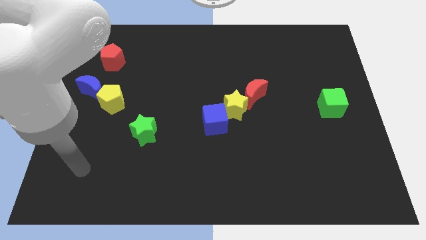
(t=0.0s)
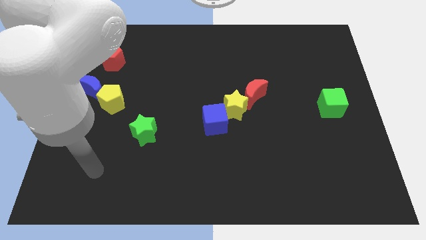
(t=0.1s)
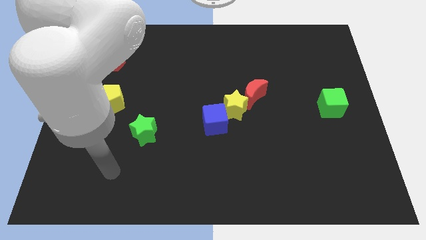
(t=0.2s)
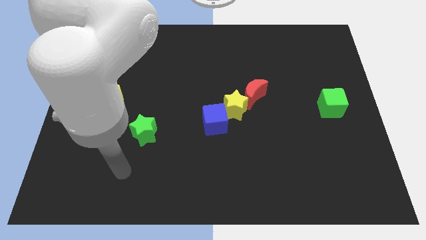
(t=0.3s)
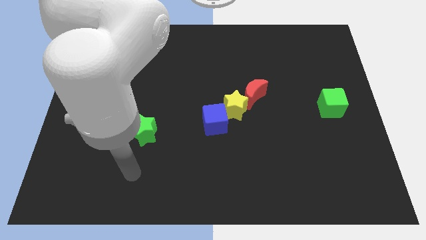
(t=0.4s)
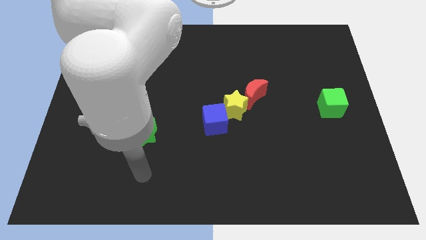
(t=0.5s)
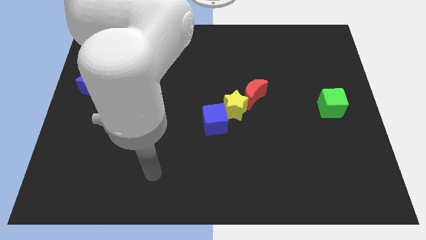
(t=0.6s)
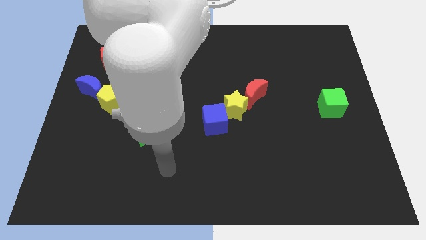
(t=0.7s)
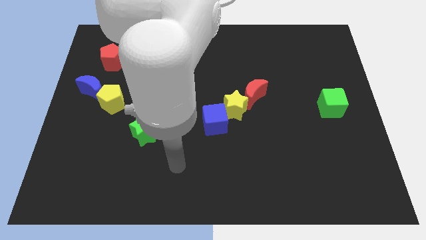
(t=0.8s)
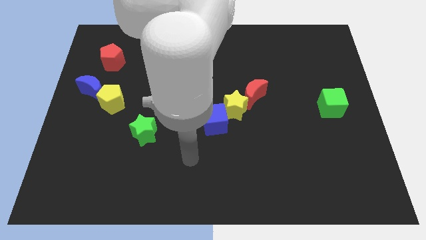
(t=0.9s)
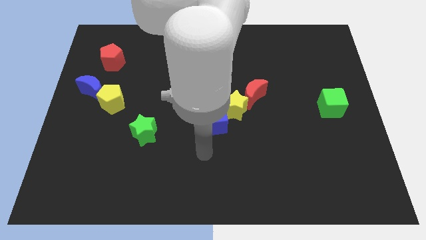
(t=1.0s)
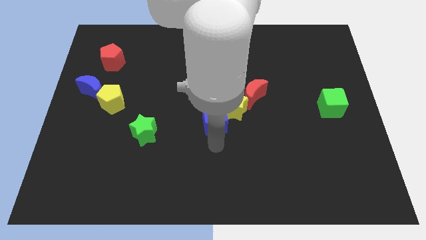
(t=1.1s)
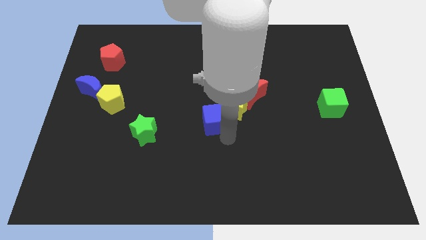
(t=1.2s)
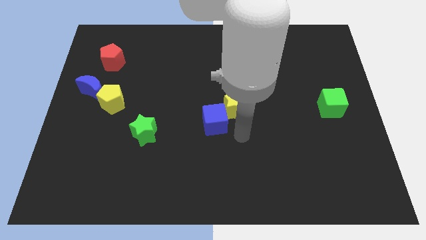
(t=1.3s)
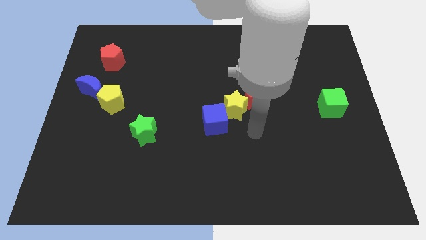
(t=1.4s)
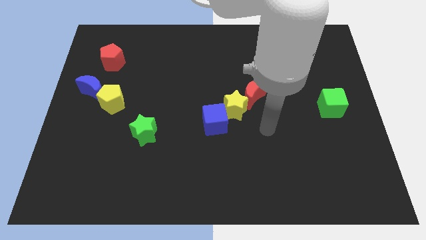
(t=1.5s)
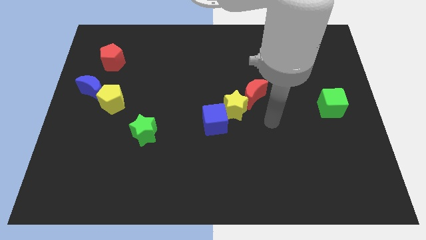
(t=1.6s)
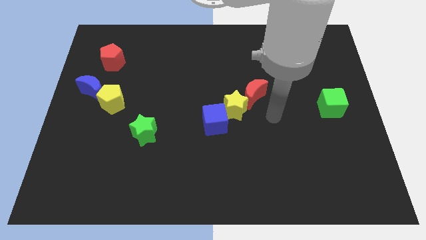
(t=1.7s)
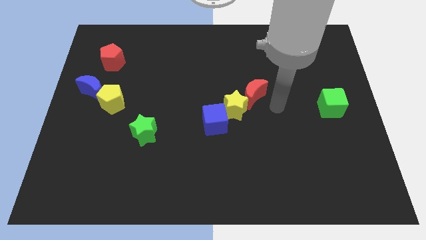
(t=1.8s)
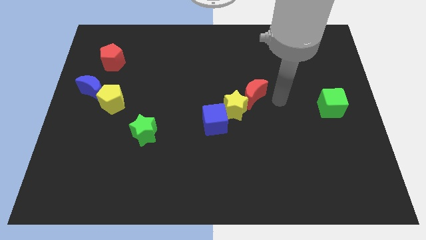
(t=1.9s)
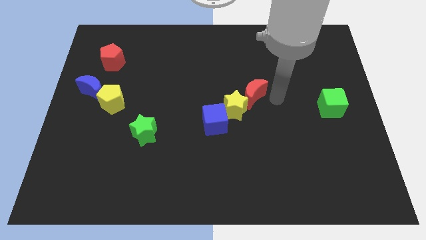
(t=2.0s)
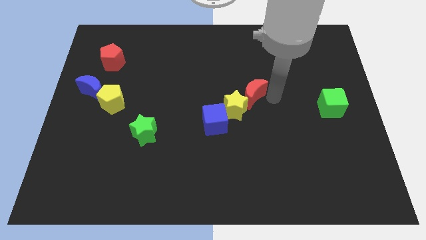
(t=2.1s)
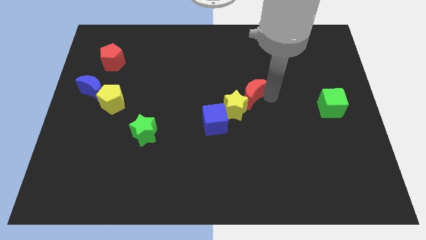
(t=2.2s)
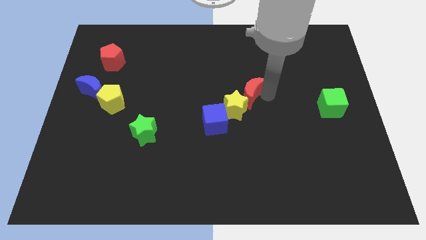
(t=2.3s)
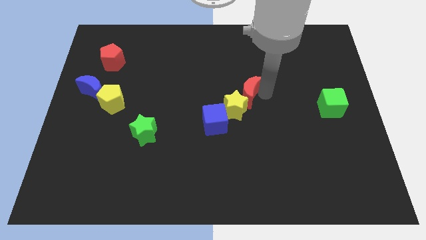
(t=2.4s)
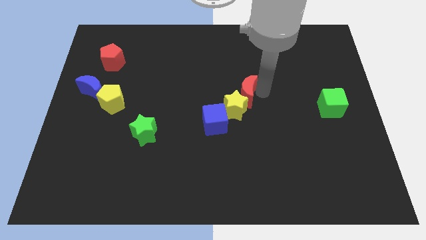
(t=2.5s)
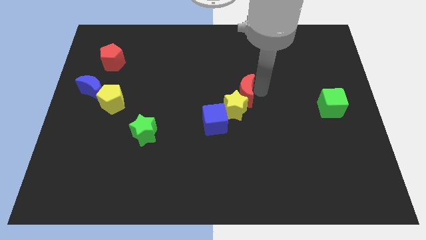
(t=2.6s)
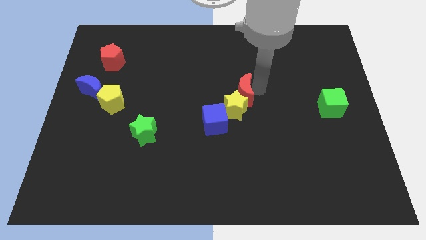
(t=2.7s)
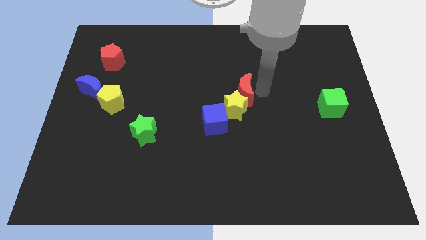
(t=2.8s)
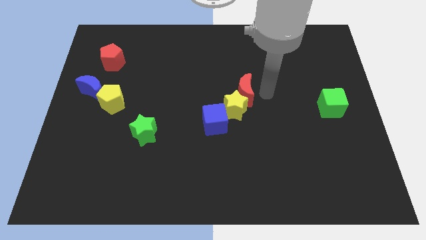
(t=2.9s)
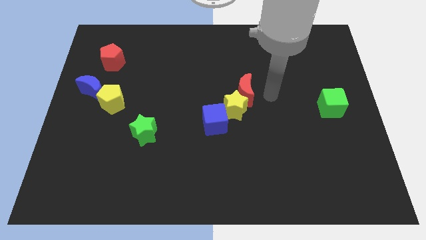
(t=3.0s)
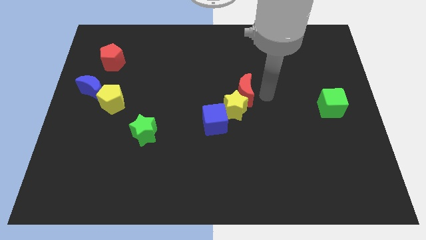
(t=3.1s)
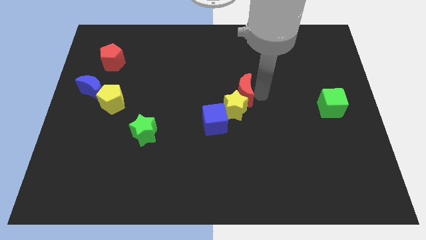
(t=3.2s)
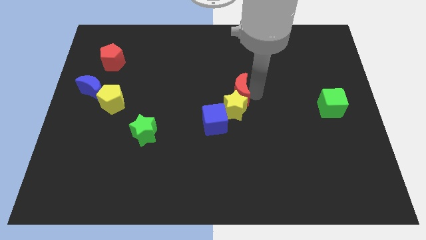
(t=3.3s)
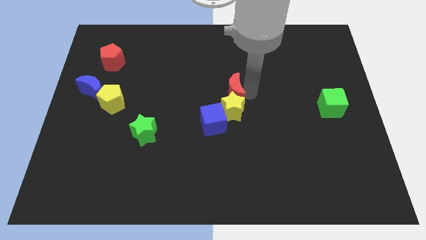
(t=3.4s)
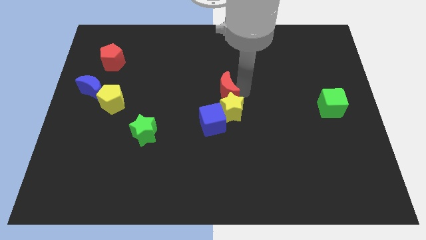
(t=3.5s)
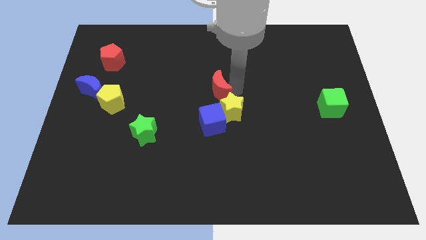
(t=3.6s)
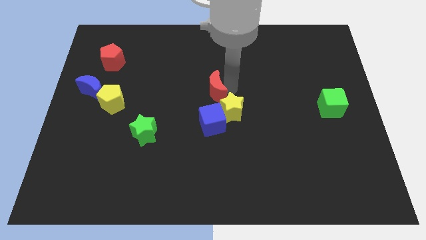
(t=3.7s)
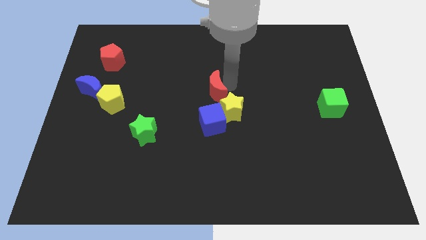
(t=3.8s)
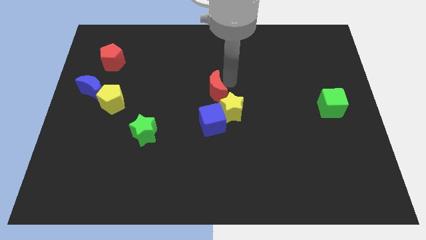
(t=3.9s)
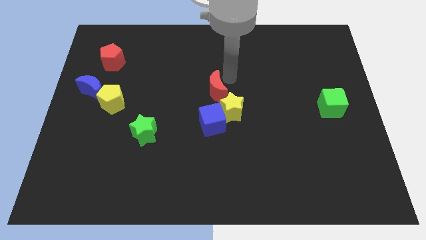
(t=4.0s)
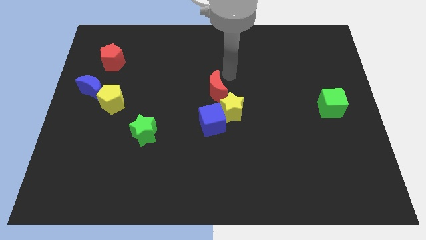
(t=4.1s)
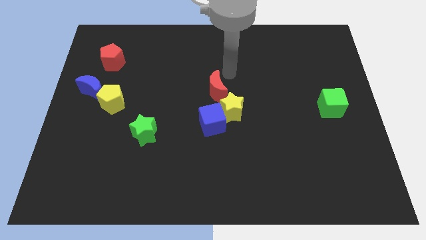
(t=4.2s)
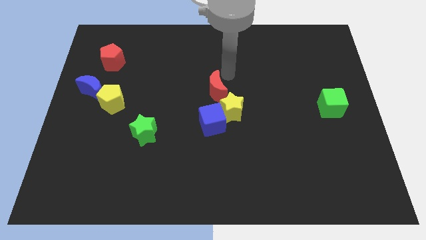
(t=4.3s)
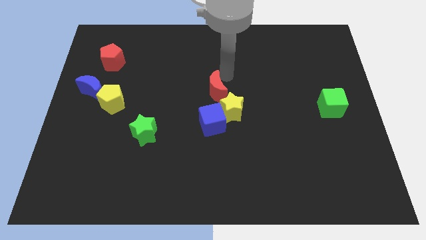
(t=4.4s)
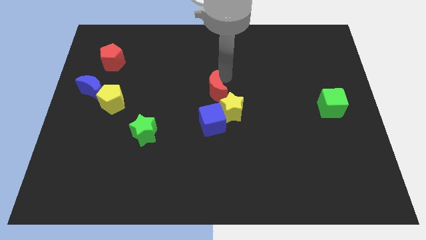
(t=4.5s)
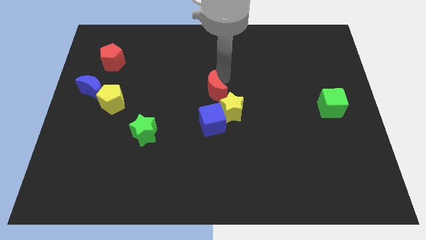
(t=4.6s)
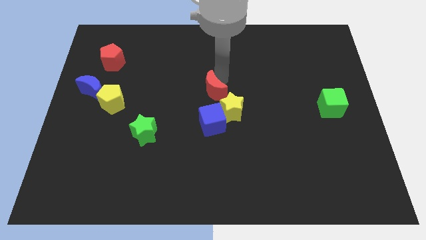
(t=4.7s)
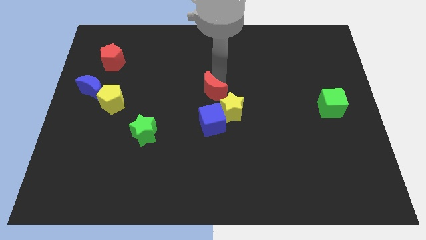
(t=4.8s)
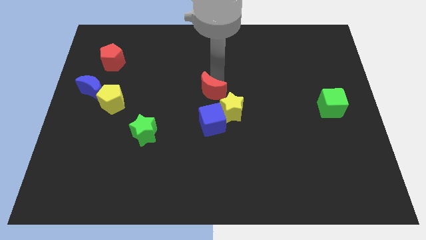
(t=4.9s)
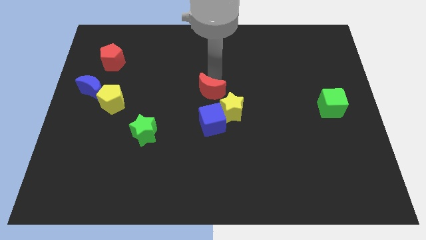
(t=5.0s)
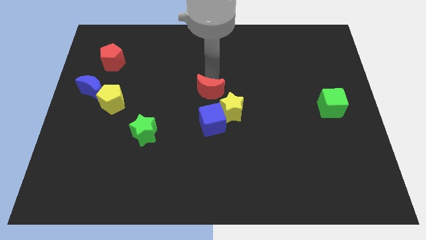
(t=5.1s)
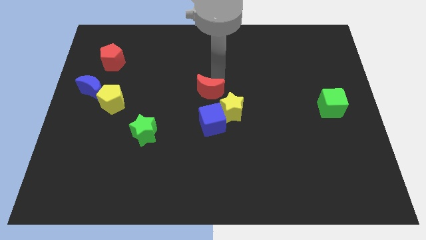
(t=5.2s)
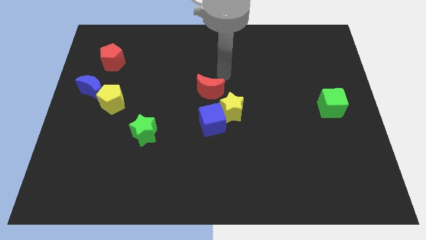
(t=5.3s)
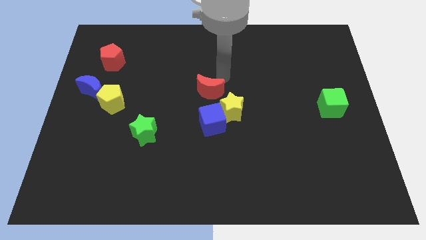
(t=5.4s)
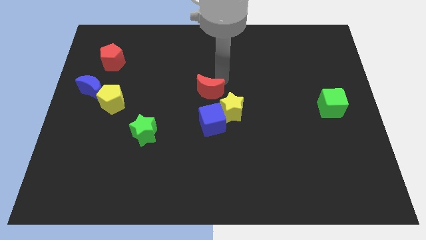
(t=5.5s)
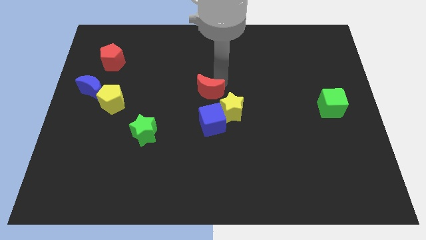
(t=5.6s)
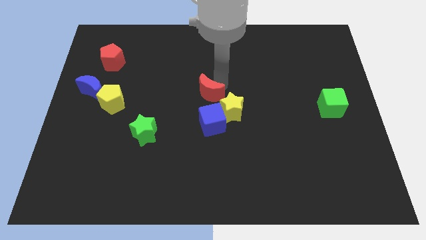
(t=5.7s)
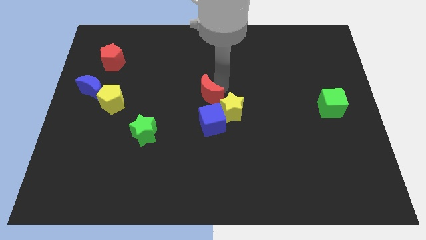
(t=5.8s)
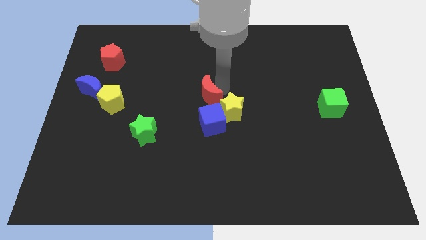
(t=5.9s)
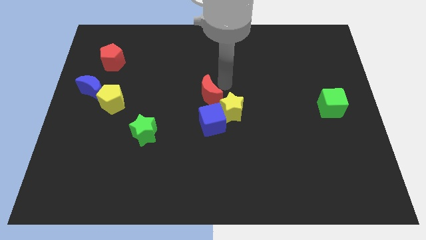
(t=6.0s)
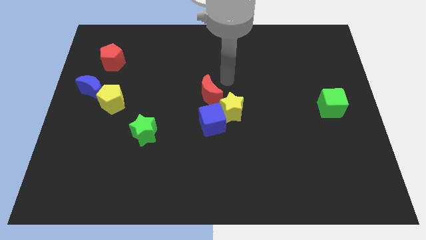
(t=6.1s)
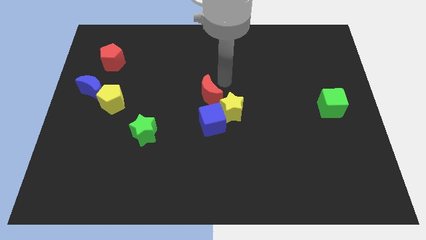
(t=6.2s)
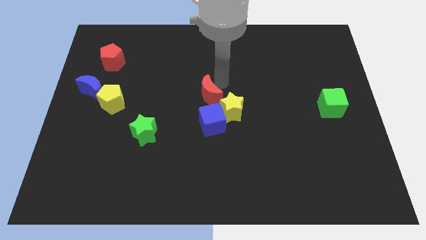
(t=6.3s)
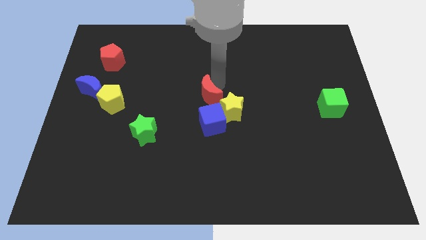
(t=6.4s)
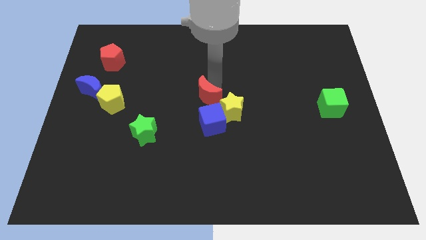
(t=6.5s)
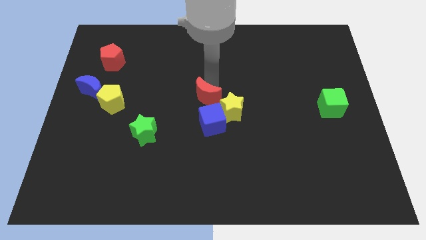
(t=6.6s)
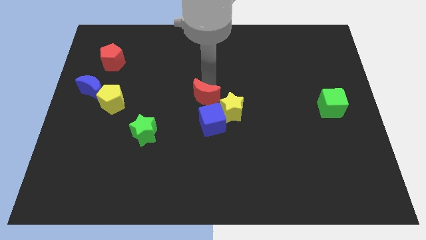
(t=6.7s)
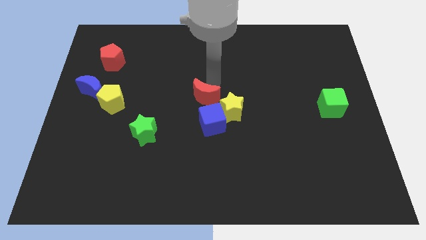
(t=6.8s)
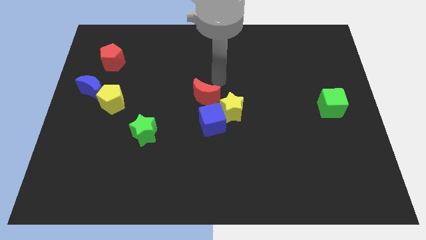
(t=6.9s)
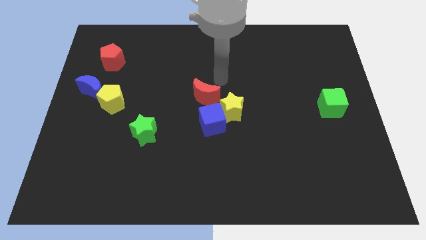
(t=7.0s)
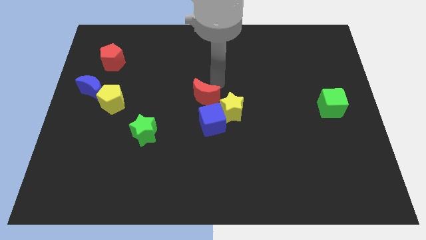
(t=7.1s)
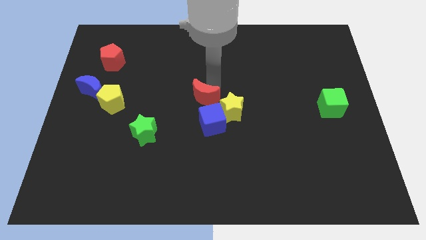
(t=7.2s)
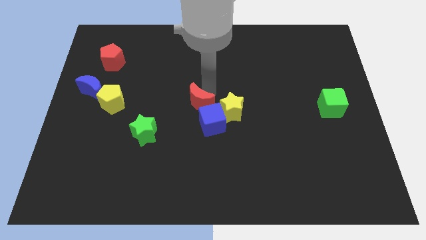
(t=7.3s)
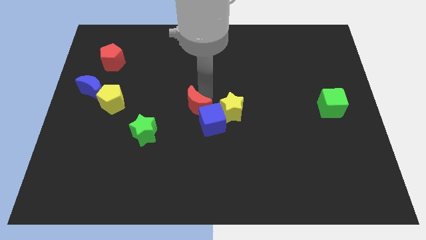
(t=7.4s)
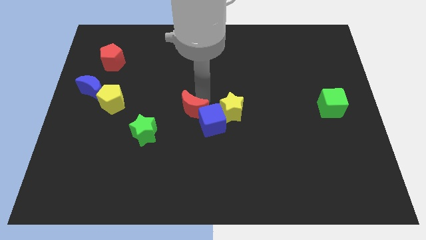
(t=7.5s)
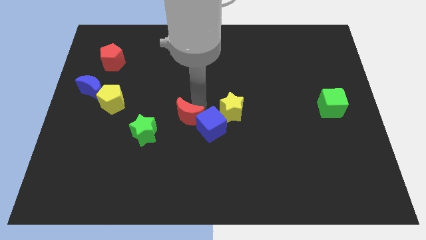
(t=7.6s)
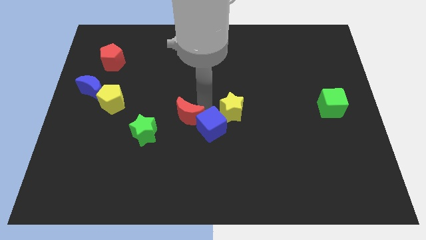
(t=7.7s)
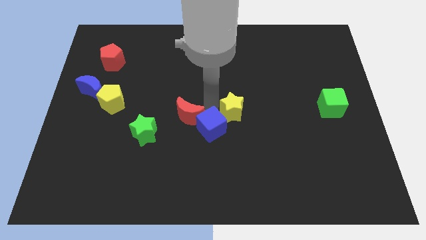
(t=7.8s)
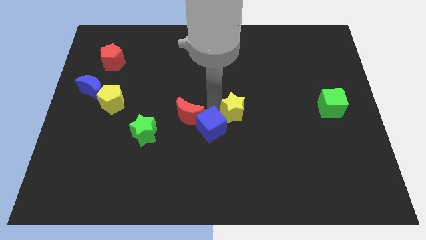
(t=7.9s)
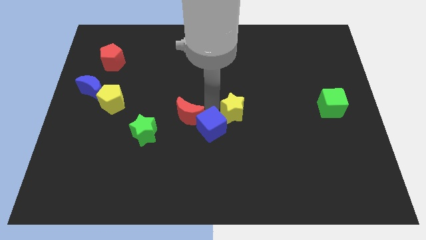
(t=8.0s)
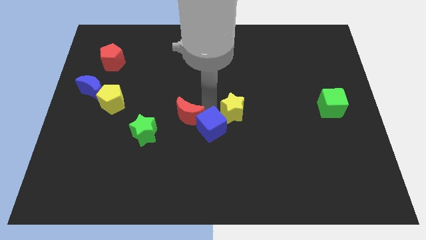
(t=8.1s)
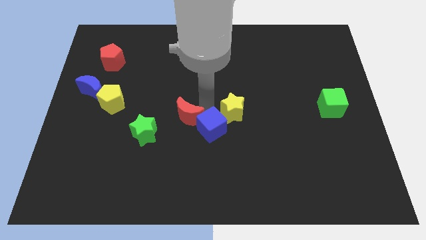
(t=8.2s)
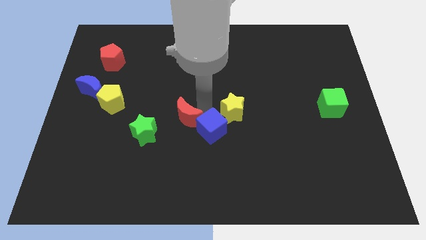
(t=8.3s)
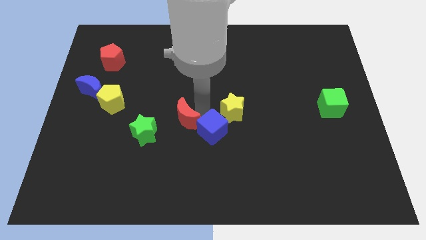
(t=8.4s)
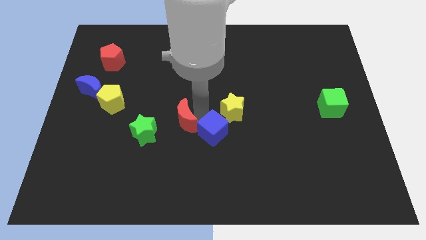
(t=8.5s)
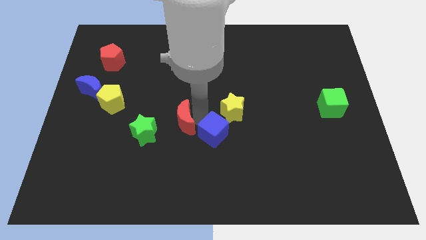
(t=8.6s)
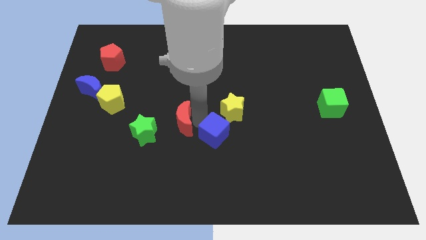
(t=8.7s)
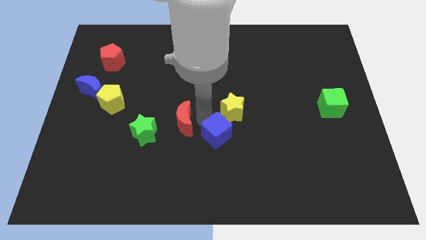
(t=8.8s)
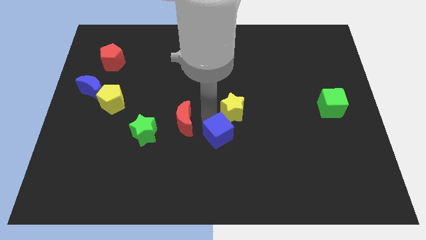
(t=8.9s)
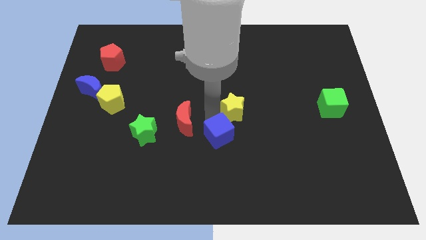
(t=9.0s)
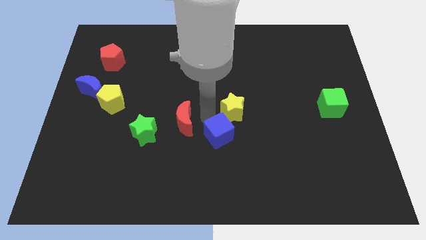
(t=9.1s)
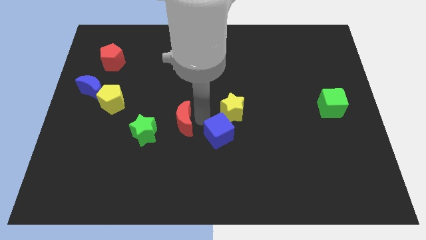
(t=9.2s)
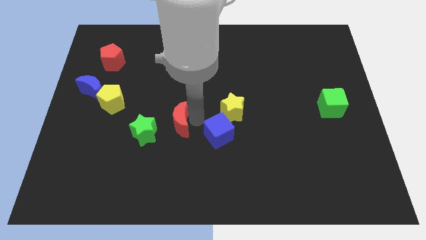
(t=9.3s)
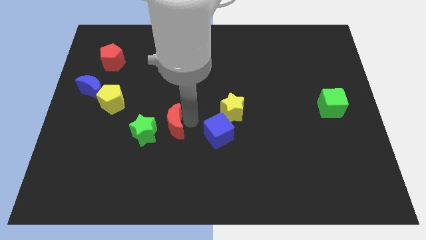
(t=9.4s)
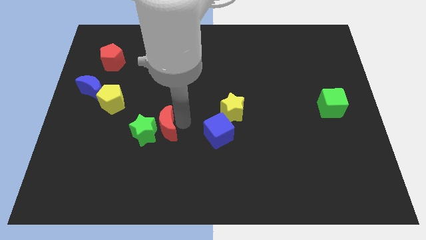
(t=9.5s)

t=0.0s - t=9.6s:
put the red moon to the green star
